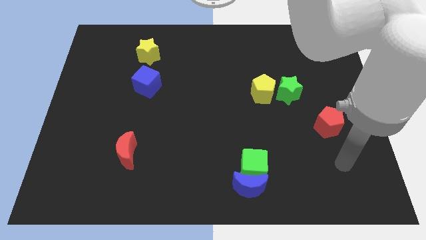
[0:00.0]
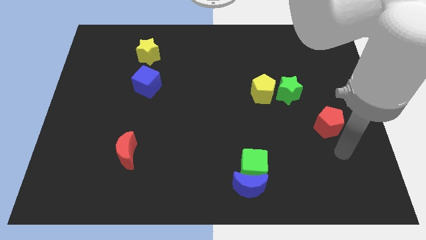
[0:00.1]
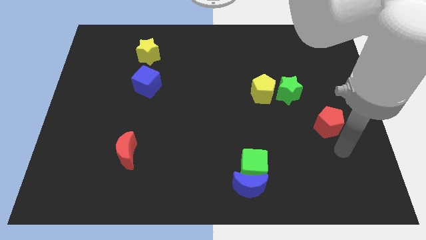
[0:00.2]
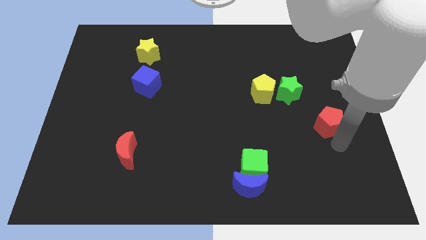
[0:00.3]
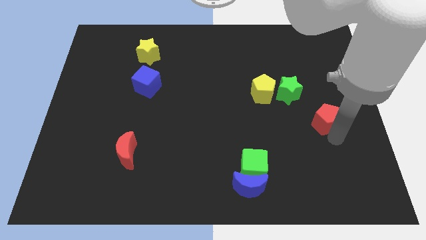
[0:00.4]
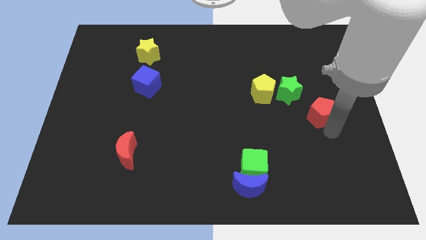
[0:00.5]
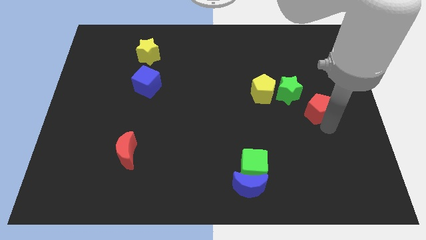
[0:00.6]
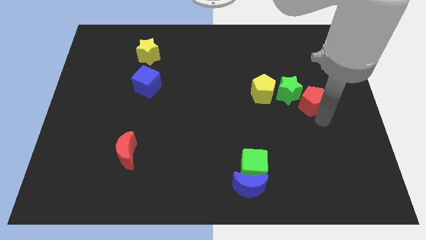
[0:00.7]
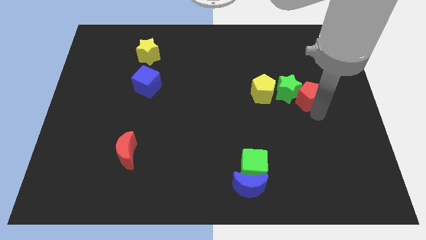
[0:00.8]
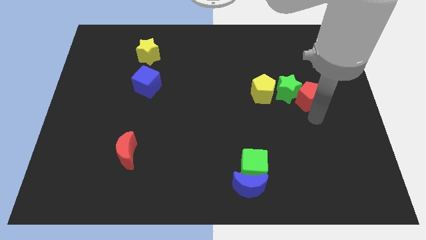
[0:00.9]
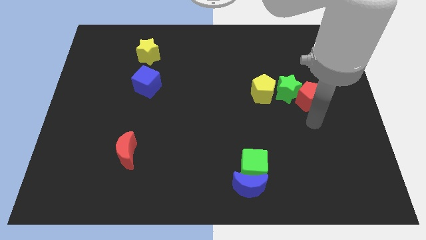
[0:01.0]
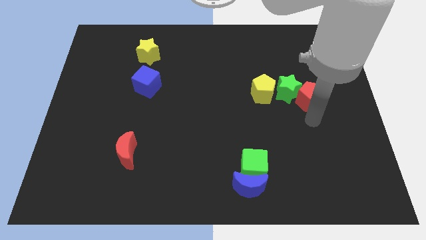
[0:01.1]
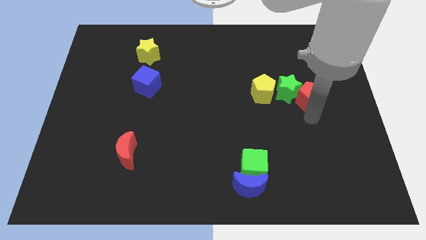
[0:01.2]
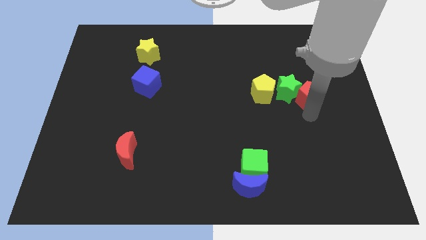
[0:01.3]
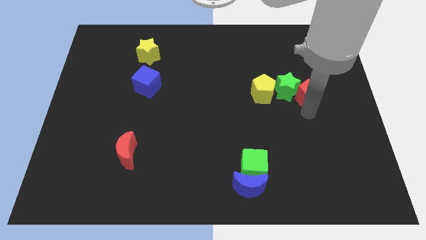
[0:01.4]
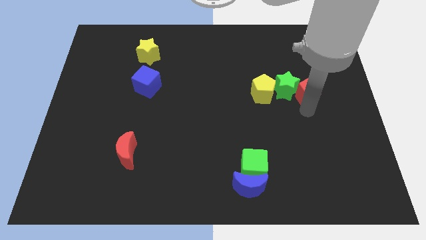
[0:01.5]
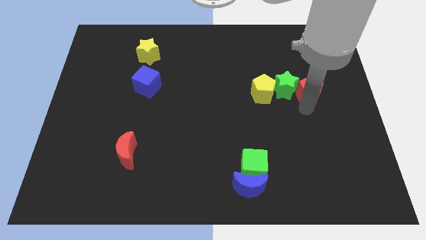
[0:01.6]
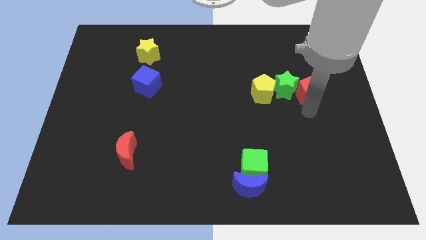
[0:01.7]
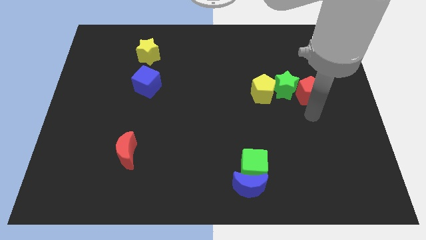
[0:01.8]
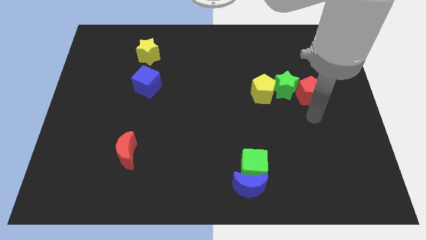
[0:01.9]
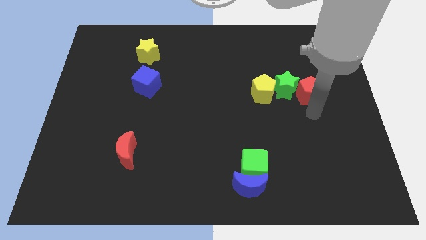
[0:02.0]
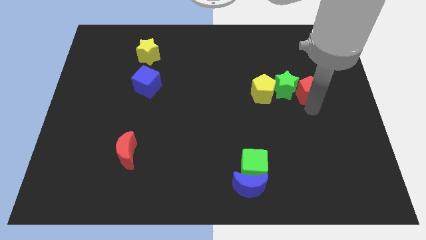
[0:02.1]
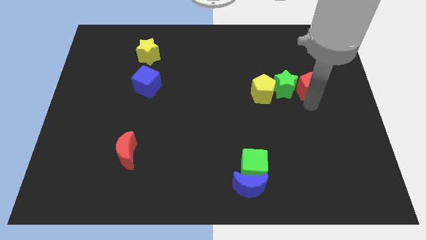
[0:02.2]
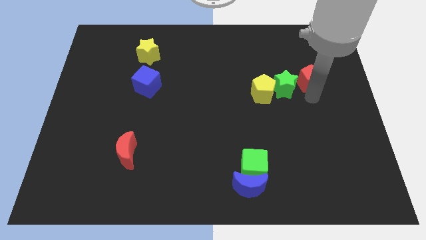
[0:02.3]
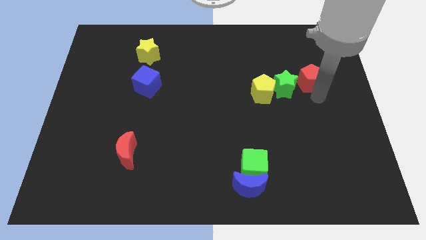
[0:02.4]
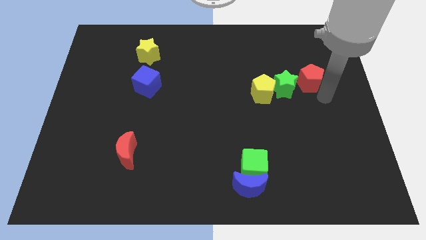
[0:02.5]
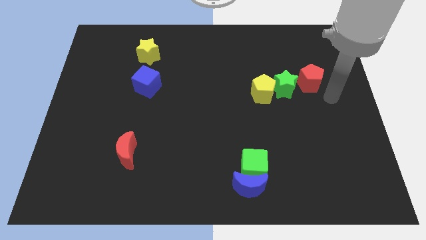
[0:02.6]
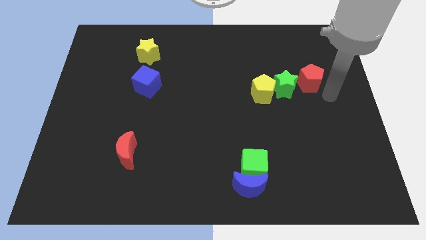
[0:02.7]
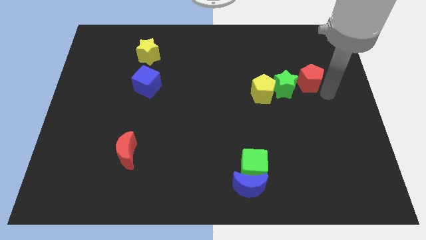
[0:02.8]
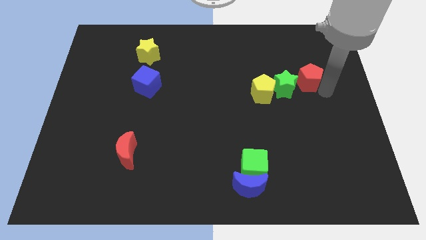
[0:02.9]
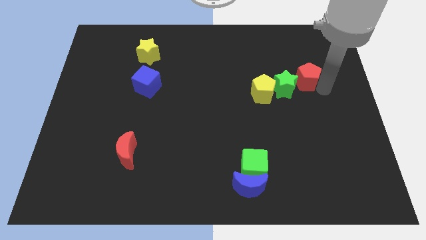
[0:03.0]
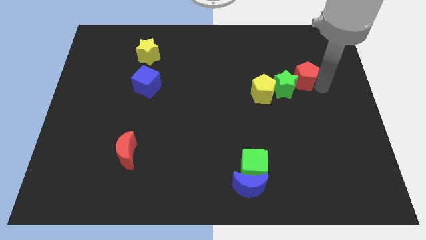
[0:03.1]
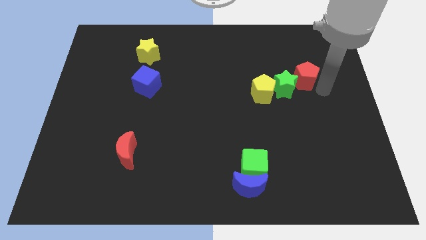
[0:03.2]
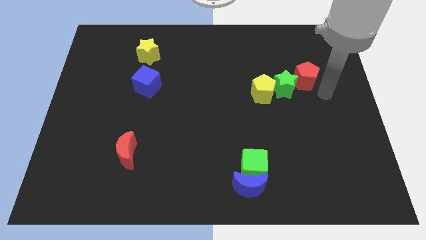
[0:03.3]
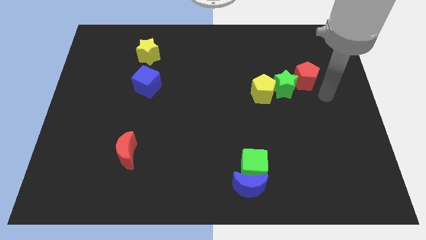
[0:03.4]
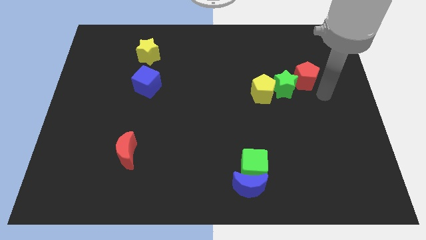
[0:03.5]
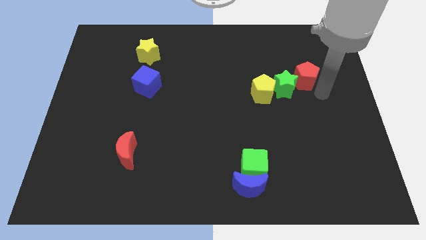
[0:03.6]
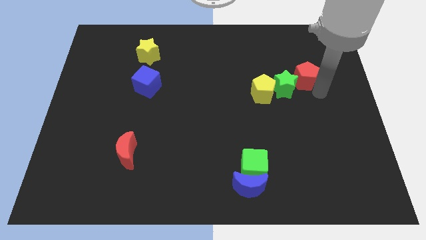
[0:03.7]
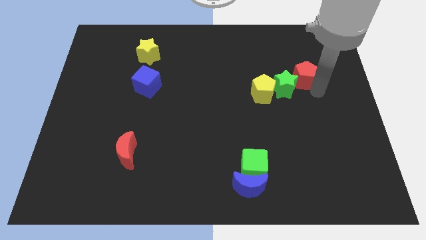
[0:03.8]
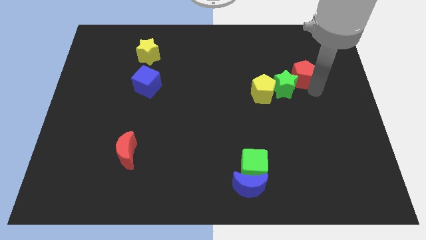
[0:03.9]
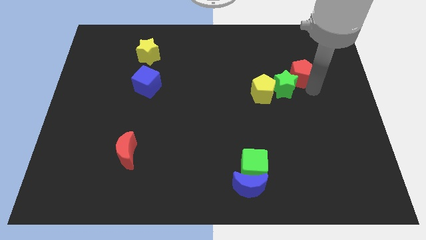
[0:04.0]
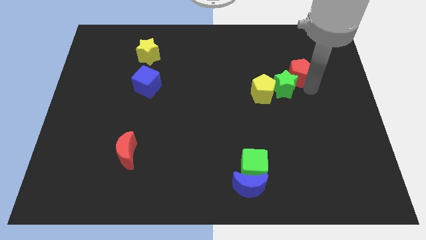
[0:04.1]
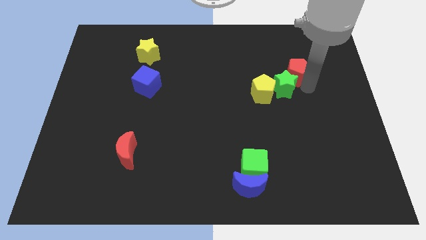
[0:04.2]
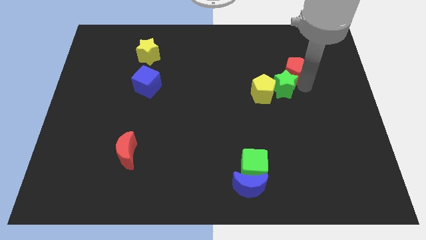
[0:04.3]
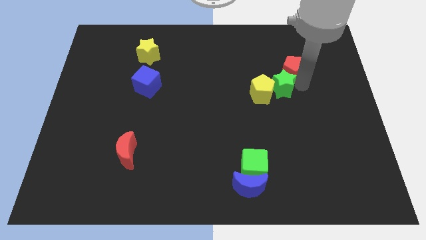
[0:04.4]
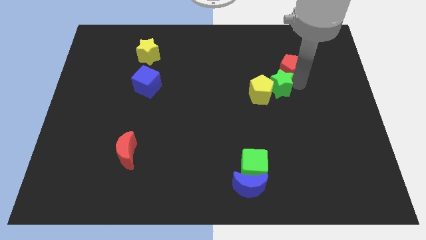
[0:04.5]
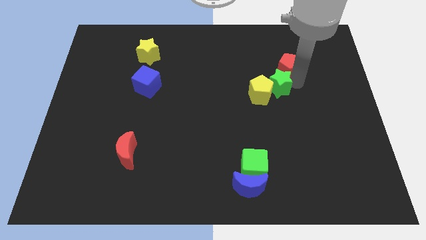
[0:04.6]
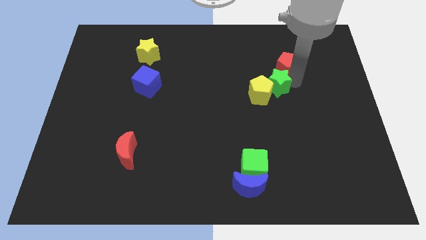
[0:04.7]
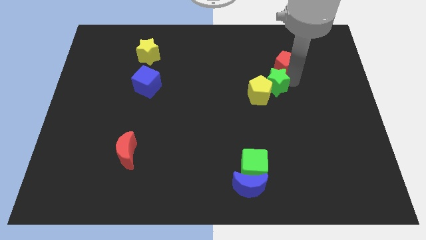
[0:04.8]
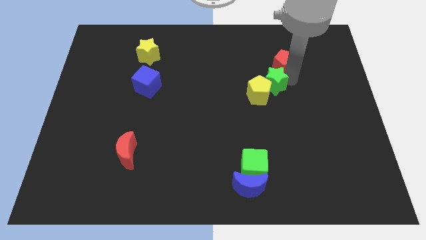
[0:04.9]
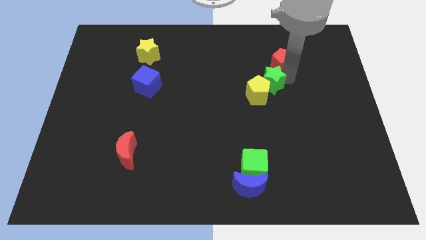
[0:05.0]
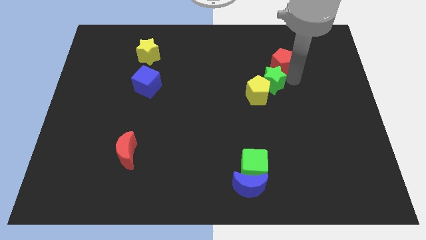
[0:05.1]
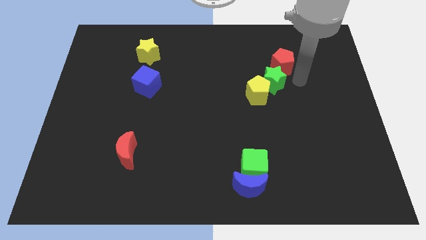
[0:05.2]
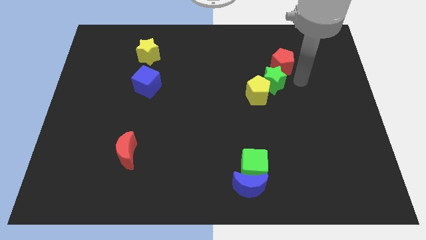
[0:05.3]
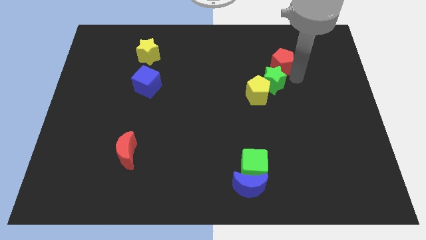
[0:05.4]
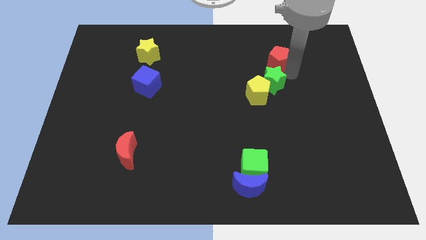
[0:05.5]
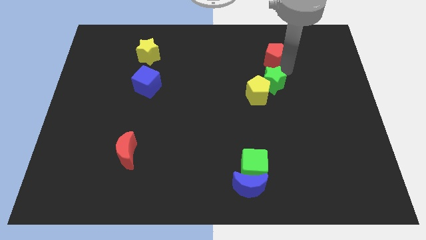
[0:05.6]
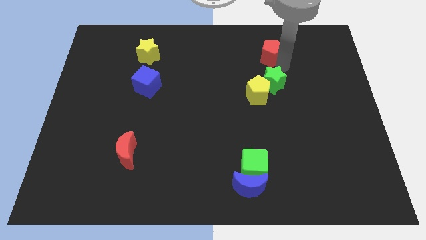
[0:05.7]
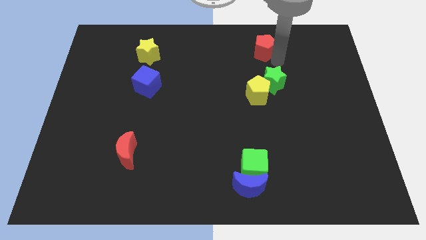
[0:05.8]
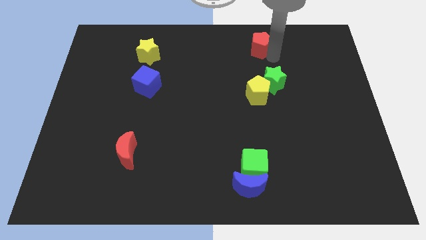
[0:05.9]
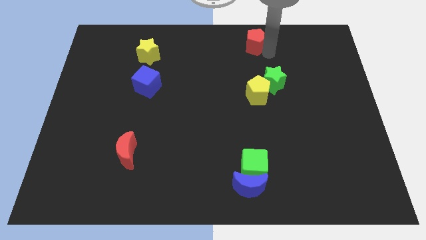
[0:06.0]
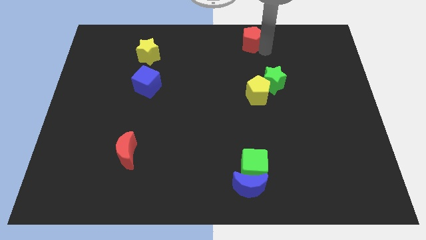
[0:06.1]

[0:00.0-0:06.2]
push the red pentagon to the towards your base
